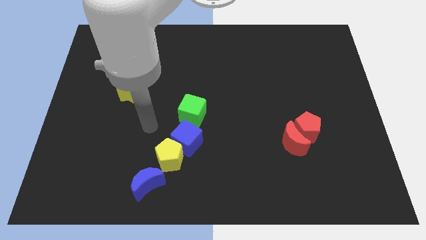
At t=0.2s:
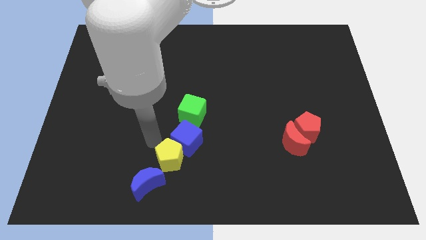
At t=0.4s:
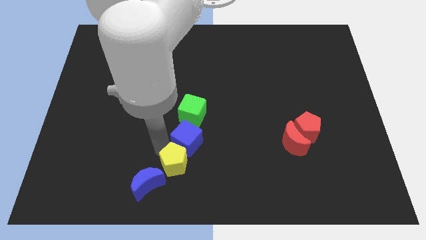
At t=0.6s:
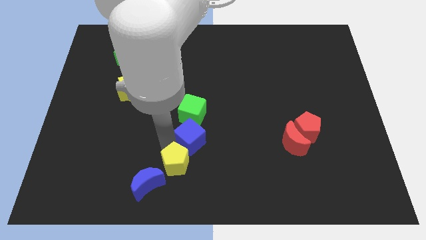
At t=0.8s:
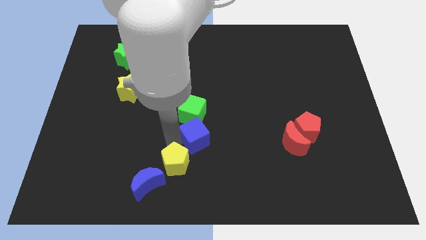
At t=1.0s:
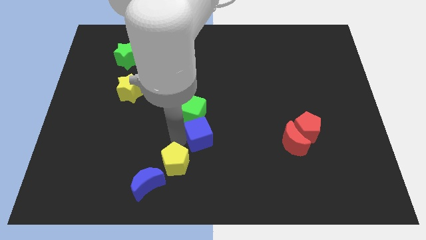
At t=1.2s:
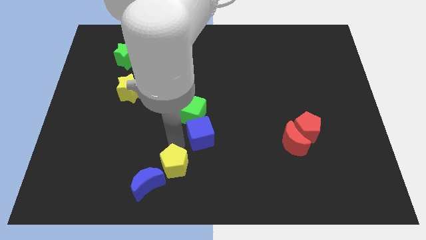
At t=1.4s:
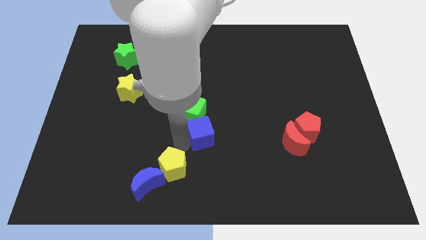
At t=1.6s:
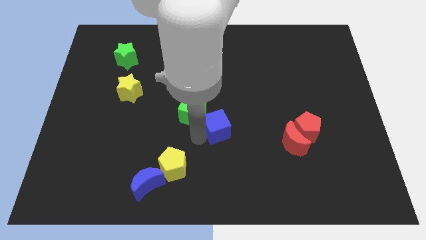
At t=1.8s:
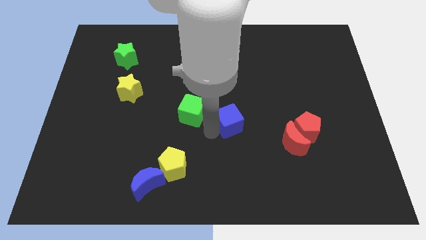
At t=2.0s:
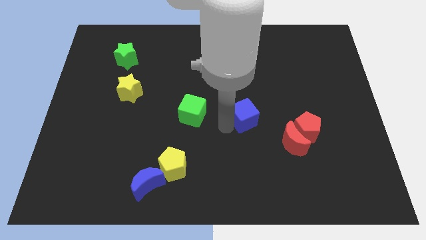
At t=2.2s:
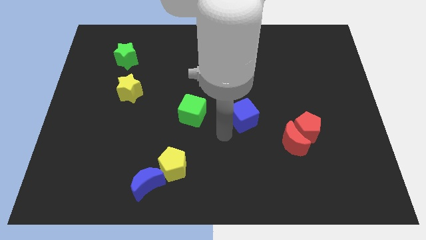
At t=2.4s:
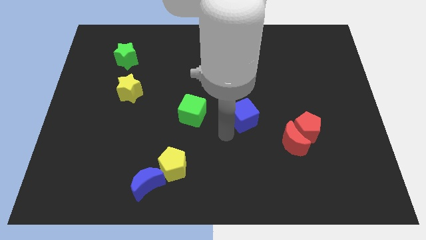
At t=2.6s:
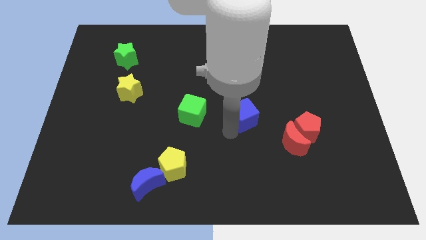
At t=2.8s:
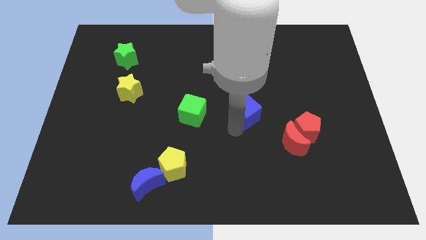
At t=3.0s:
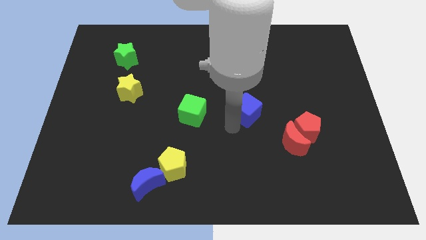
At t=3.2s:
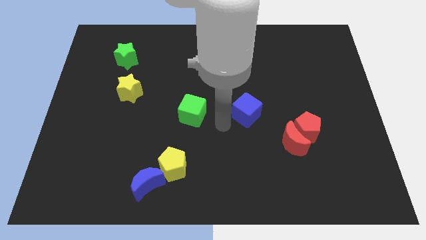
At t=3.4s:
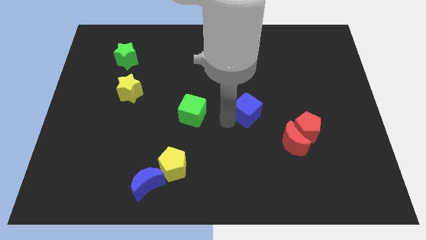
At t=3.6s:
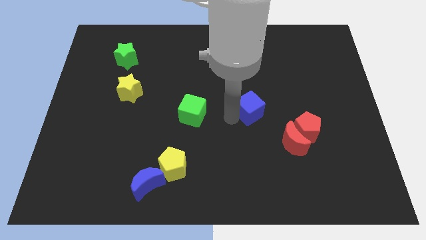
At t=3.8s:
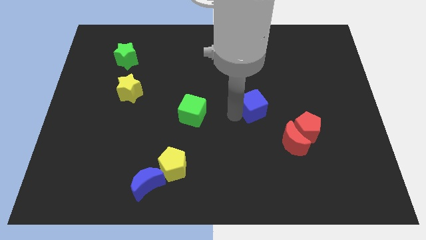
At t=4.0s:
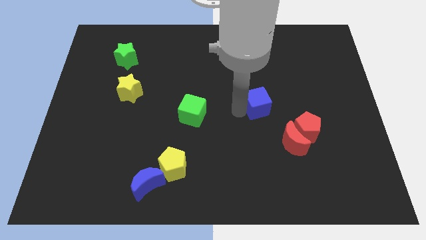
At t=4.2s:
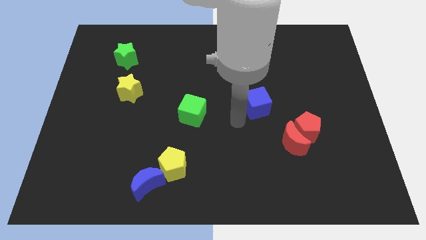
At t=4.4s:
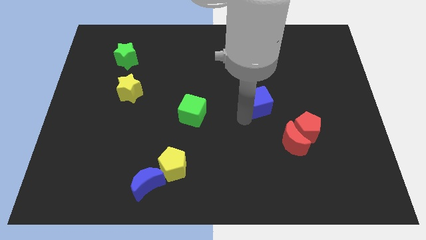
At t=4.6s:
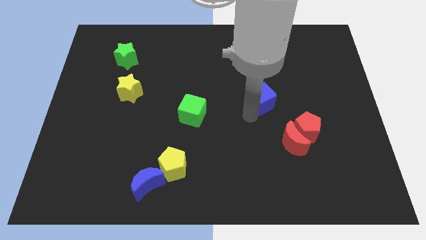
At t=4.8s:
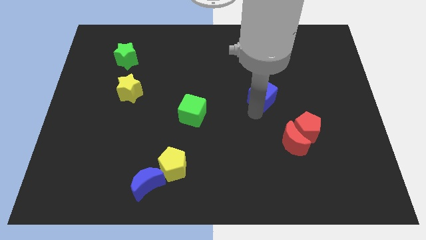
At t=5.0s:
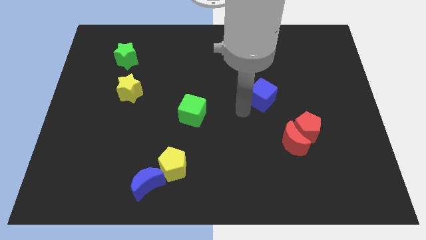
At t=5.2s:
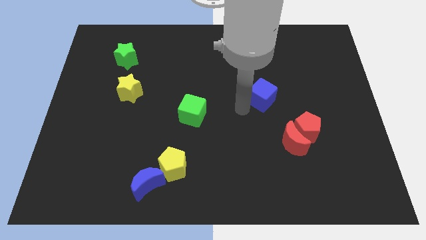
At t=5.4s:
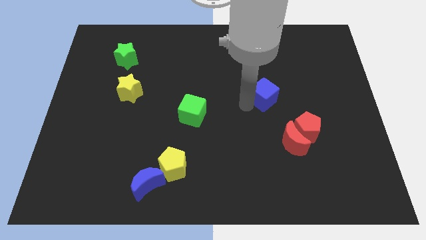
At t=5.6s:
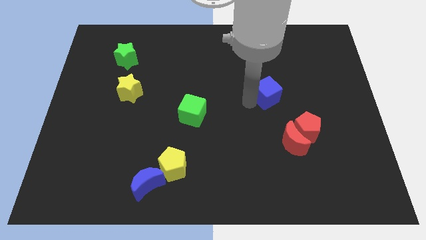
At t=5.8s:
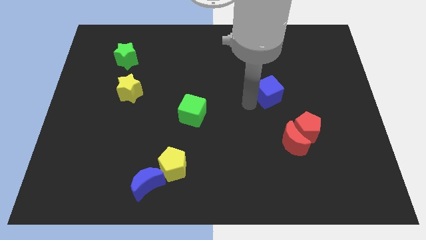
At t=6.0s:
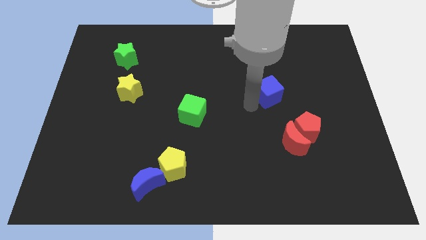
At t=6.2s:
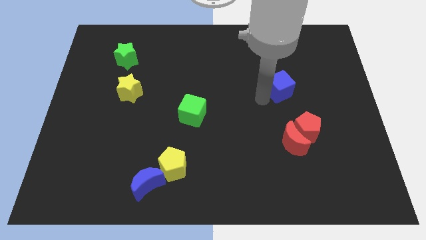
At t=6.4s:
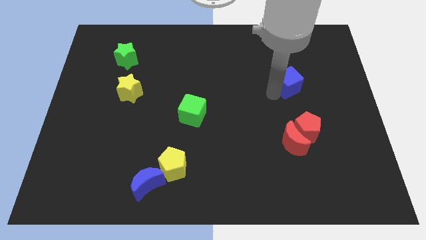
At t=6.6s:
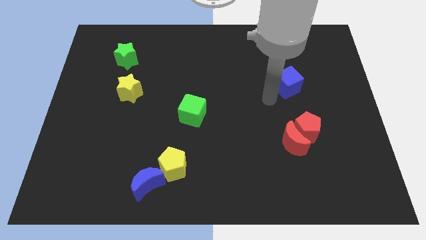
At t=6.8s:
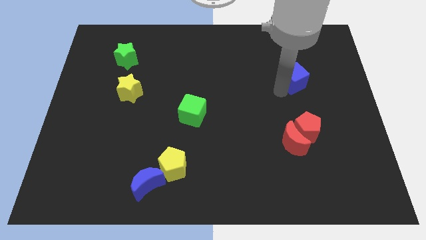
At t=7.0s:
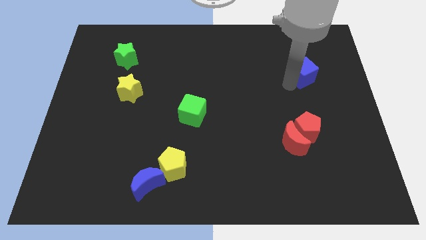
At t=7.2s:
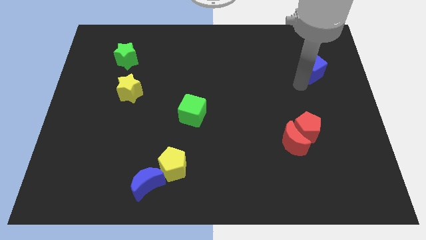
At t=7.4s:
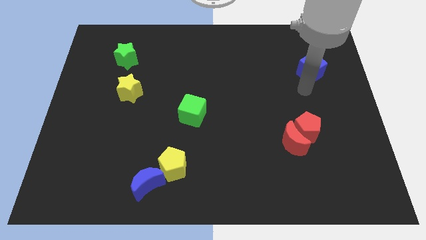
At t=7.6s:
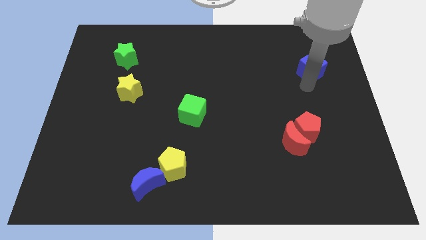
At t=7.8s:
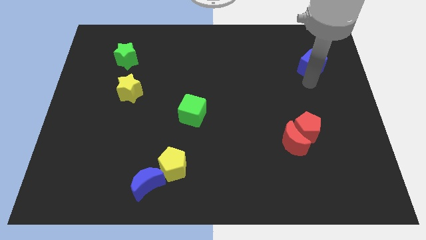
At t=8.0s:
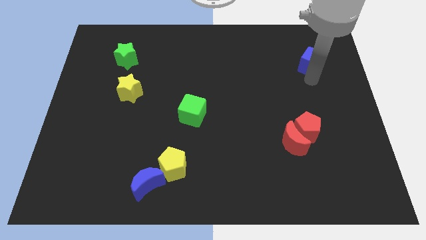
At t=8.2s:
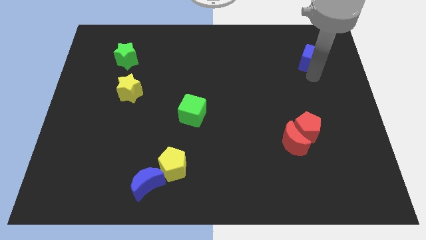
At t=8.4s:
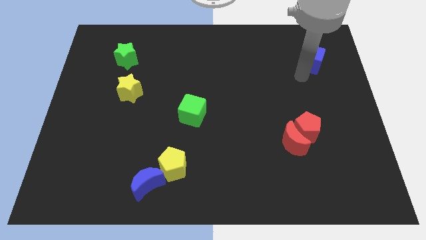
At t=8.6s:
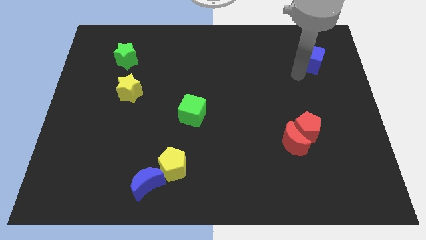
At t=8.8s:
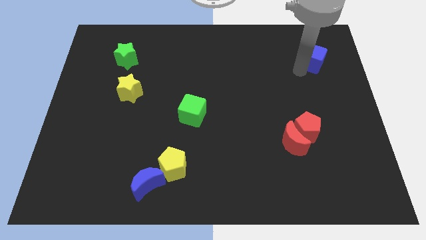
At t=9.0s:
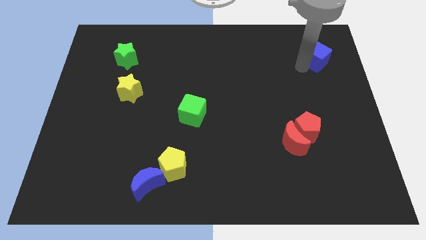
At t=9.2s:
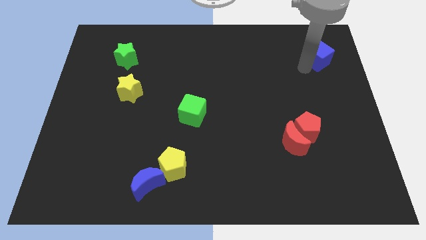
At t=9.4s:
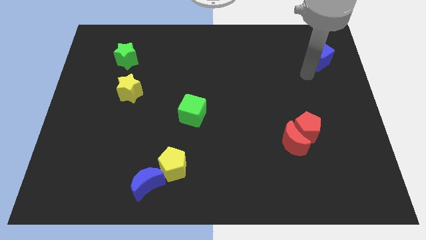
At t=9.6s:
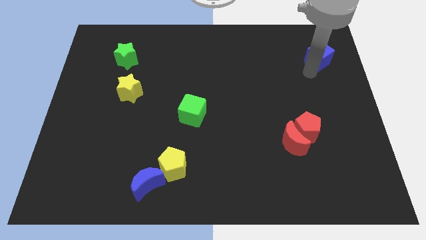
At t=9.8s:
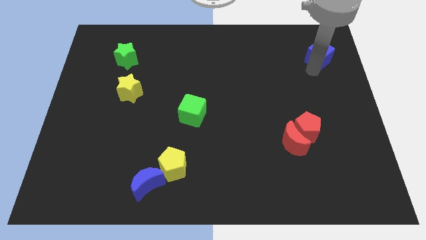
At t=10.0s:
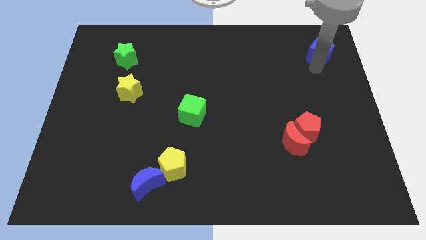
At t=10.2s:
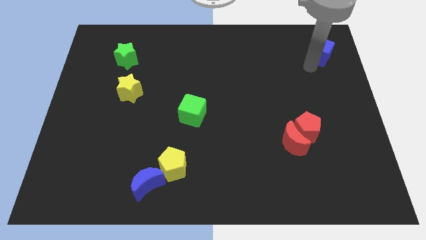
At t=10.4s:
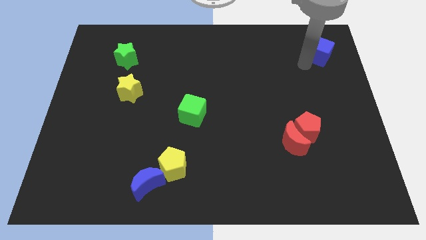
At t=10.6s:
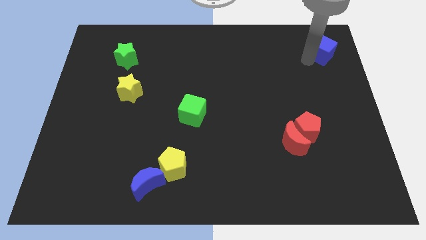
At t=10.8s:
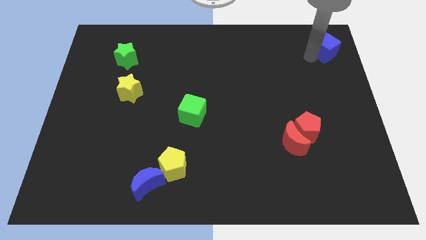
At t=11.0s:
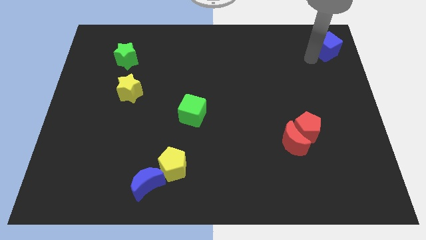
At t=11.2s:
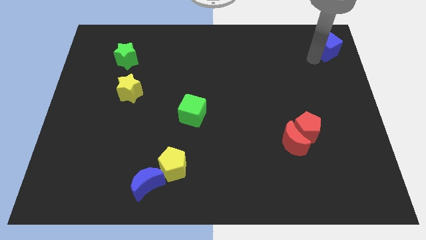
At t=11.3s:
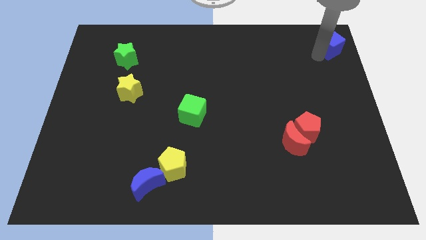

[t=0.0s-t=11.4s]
move the blue cube to the top right corner

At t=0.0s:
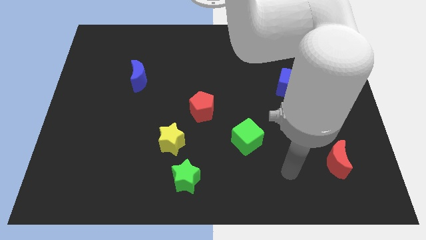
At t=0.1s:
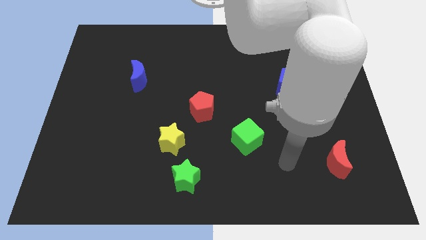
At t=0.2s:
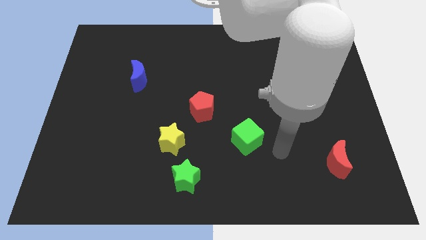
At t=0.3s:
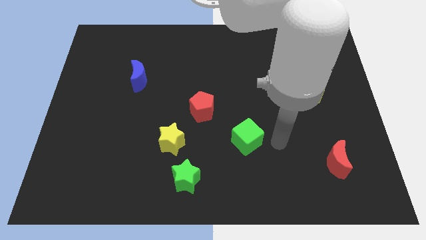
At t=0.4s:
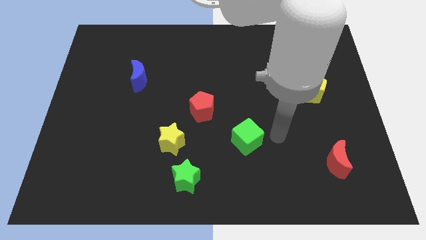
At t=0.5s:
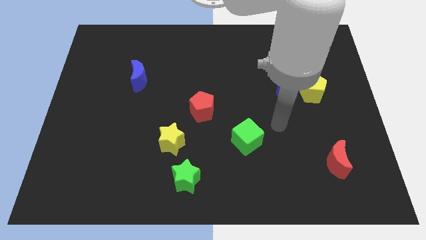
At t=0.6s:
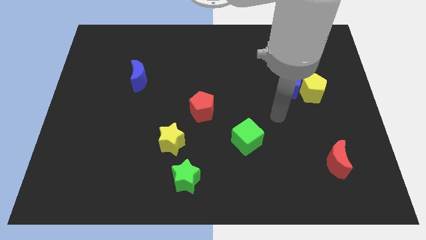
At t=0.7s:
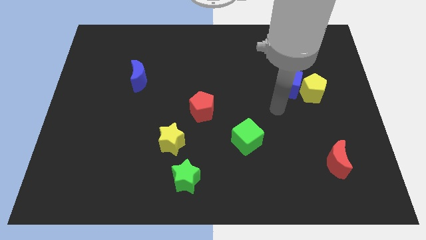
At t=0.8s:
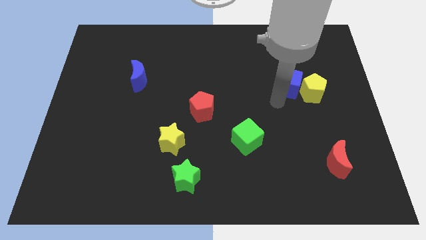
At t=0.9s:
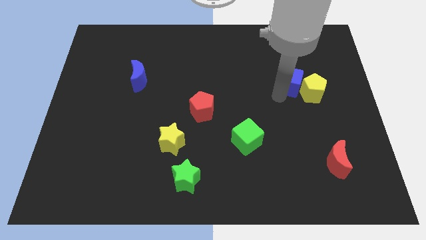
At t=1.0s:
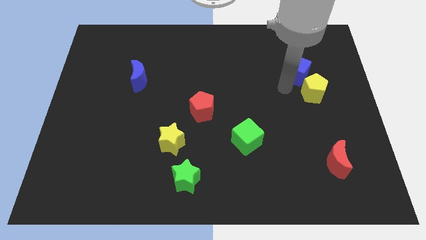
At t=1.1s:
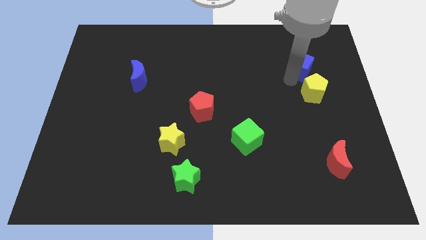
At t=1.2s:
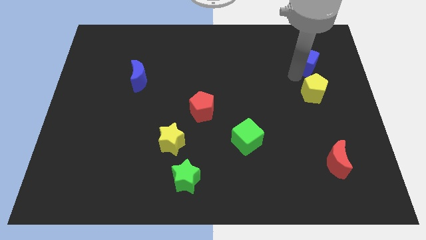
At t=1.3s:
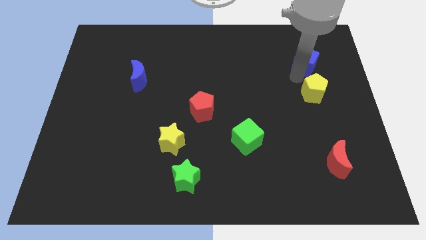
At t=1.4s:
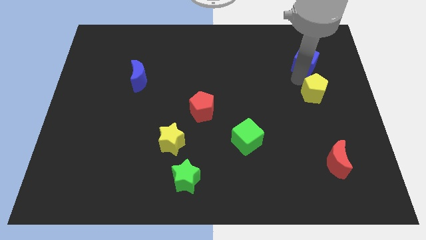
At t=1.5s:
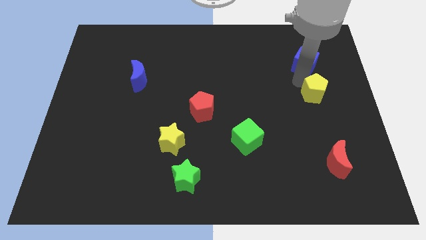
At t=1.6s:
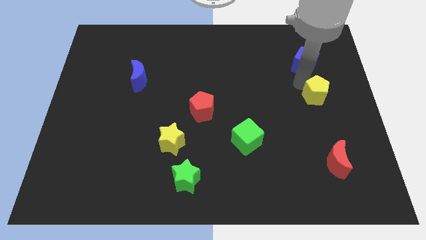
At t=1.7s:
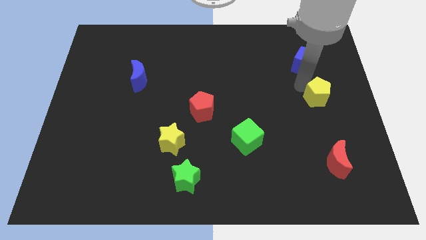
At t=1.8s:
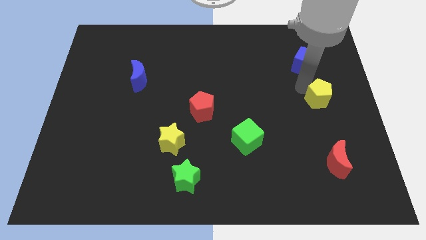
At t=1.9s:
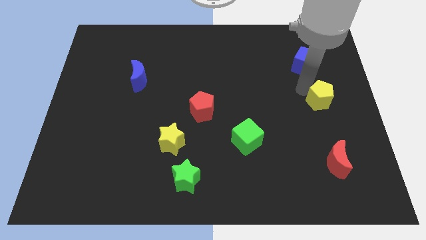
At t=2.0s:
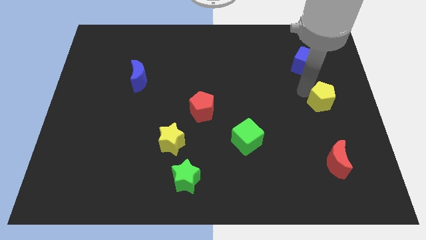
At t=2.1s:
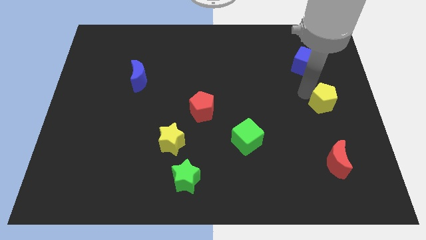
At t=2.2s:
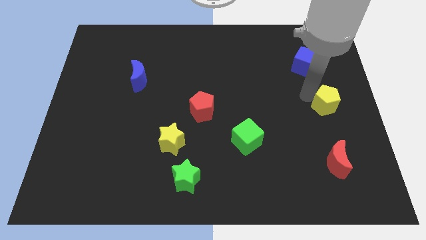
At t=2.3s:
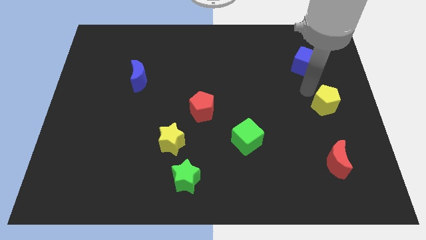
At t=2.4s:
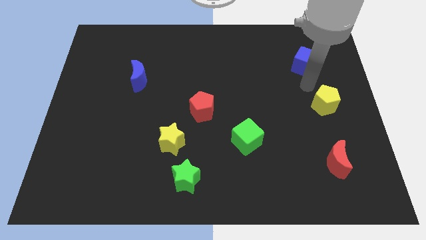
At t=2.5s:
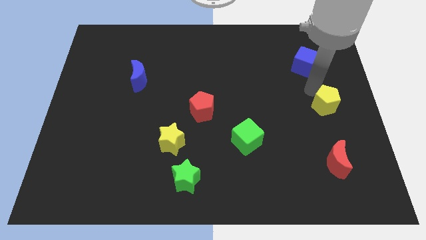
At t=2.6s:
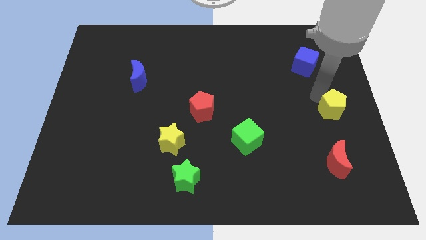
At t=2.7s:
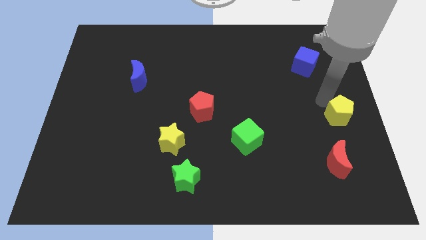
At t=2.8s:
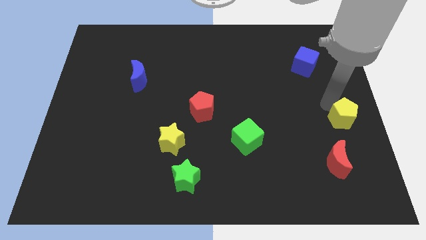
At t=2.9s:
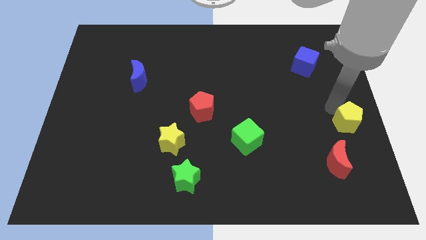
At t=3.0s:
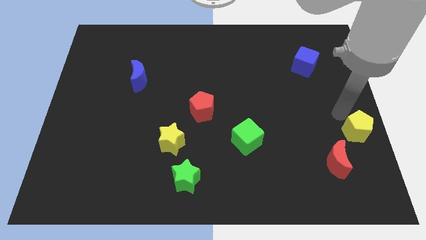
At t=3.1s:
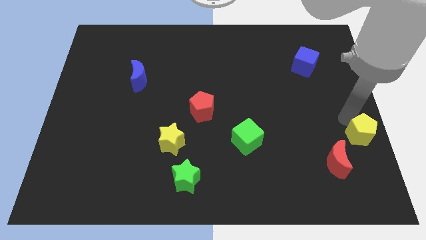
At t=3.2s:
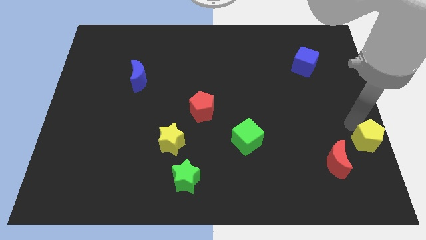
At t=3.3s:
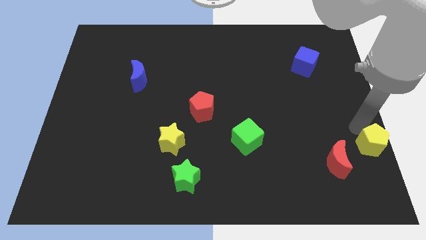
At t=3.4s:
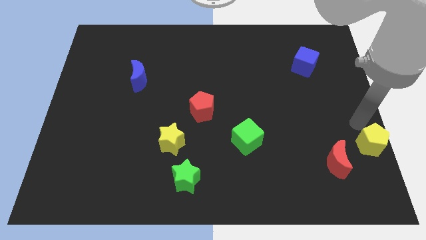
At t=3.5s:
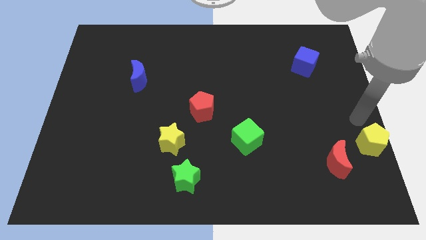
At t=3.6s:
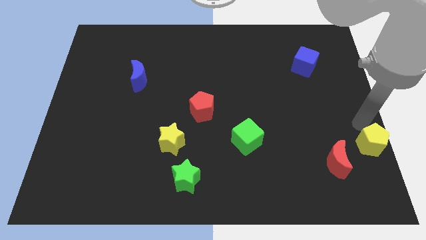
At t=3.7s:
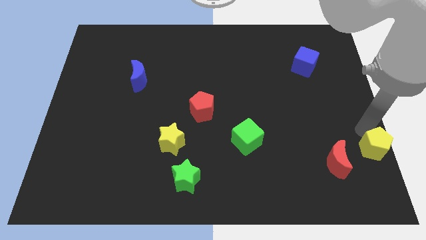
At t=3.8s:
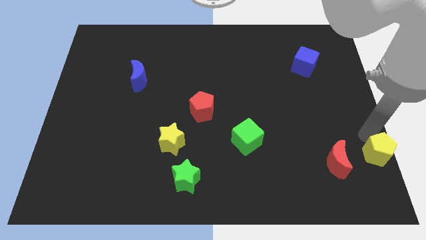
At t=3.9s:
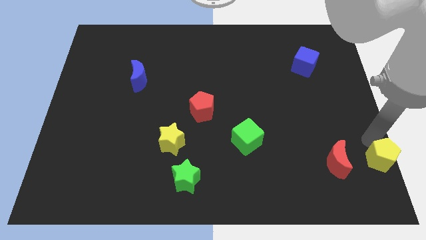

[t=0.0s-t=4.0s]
slide the yellow pentagon to the bottom right corner
